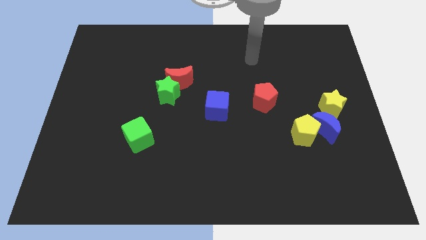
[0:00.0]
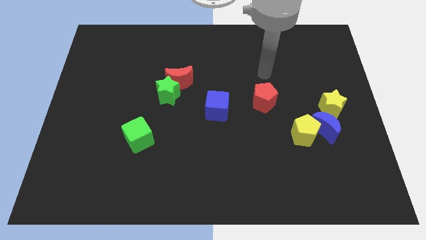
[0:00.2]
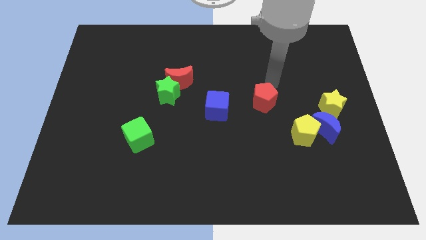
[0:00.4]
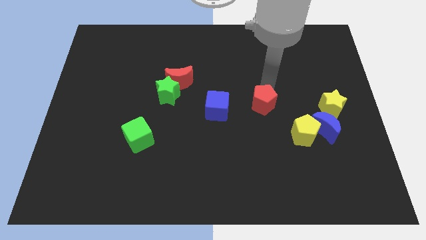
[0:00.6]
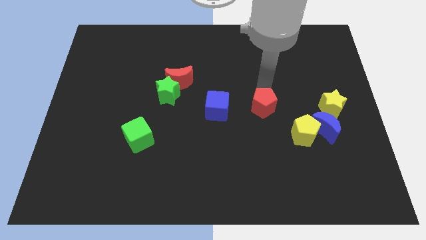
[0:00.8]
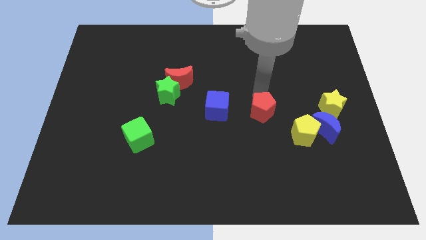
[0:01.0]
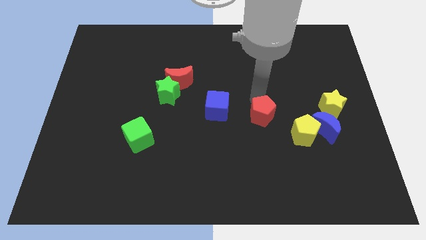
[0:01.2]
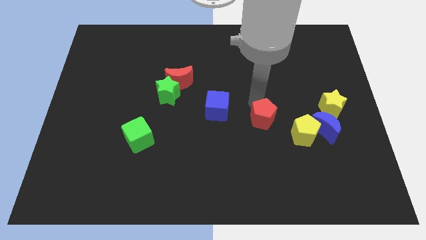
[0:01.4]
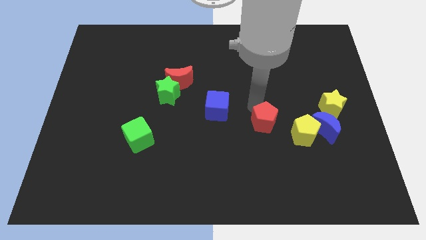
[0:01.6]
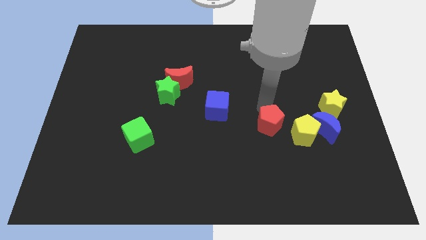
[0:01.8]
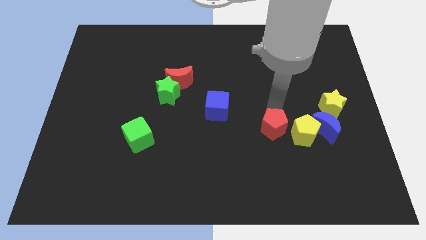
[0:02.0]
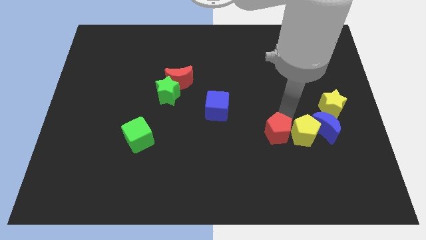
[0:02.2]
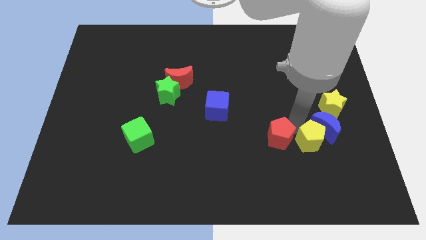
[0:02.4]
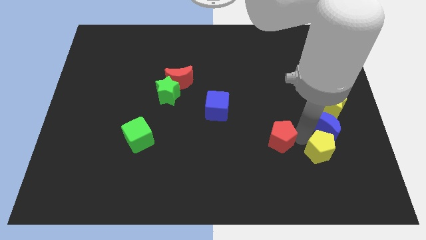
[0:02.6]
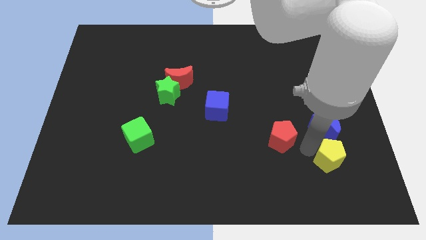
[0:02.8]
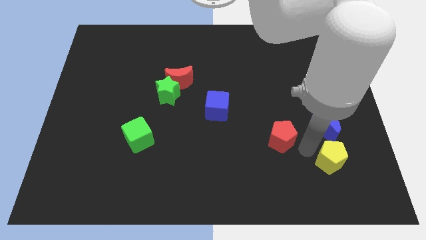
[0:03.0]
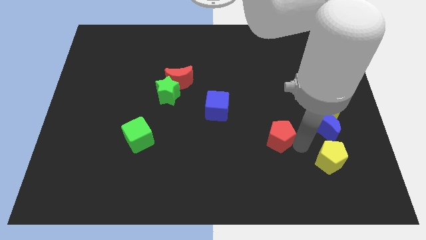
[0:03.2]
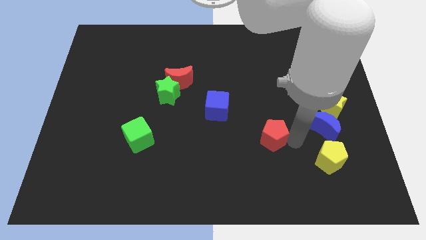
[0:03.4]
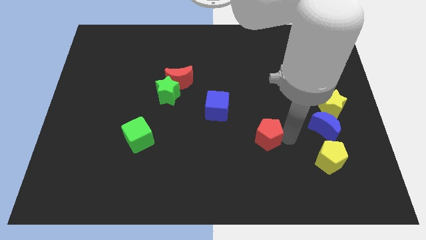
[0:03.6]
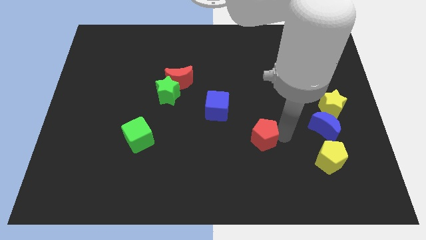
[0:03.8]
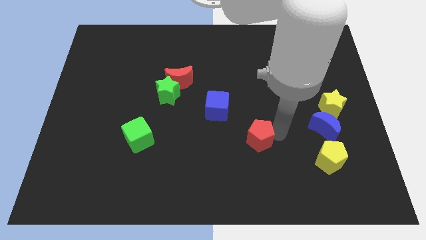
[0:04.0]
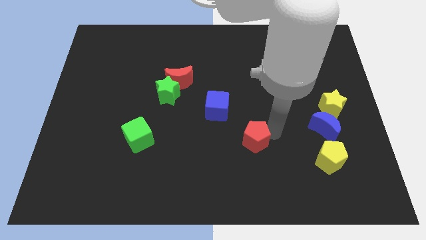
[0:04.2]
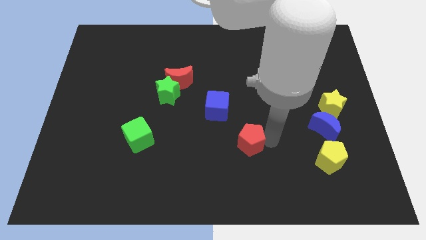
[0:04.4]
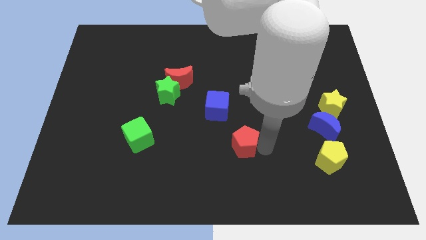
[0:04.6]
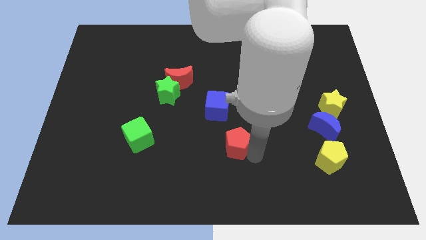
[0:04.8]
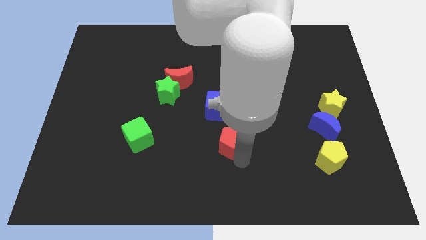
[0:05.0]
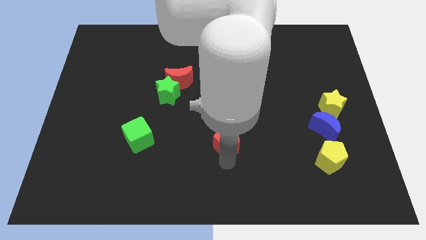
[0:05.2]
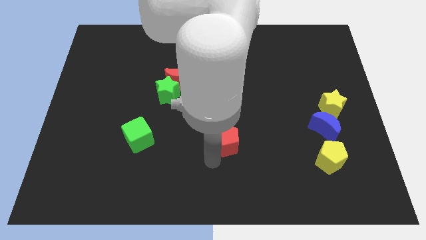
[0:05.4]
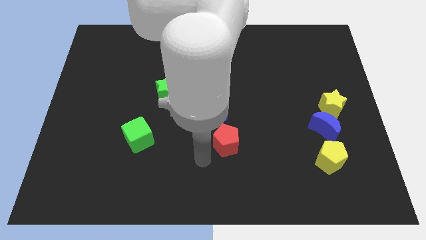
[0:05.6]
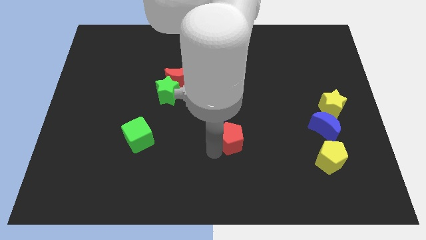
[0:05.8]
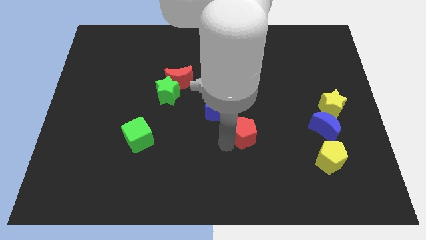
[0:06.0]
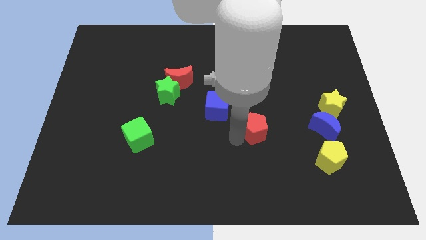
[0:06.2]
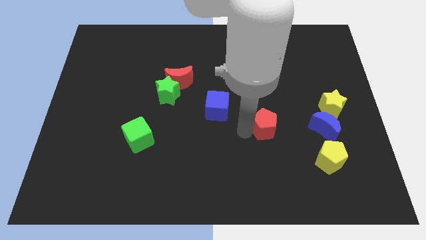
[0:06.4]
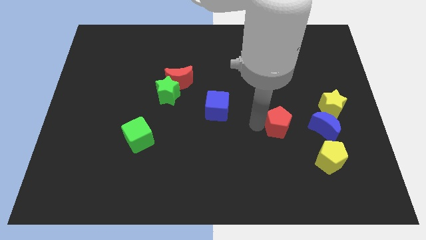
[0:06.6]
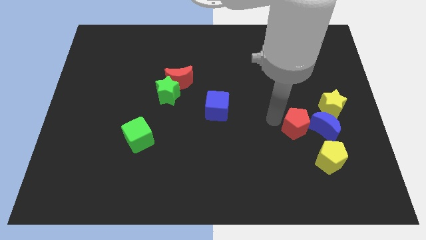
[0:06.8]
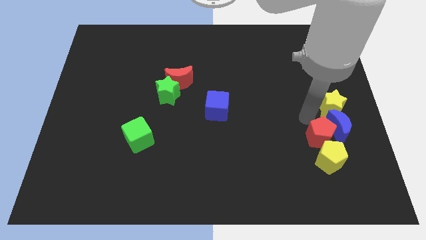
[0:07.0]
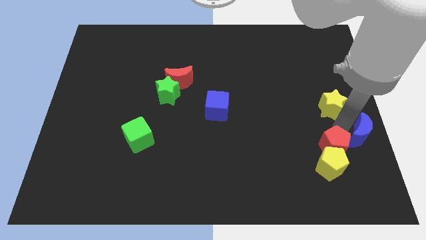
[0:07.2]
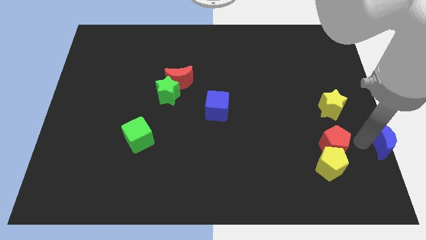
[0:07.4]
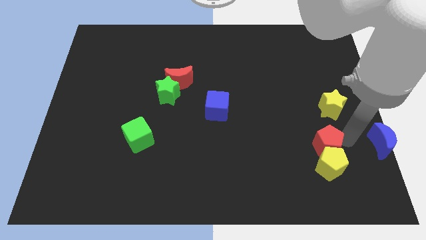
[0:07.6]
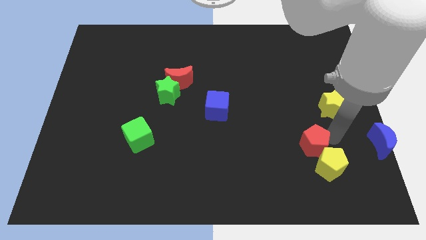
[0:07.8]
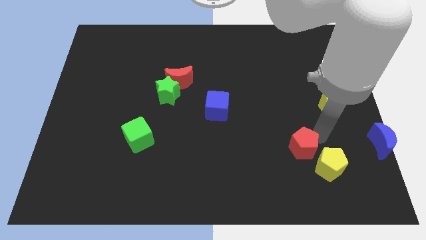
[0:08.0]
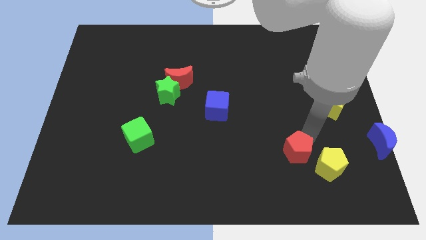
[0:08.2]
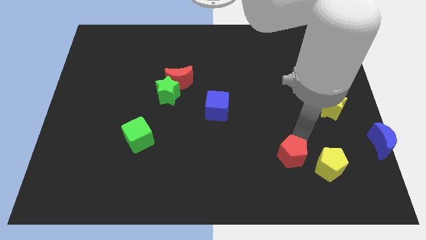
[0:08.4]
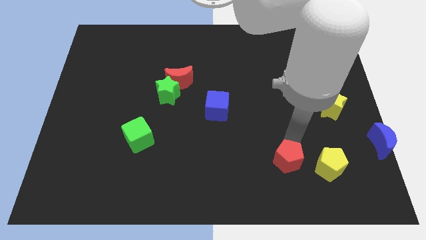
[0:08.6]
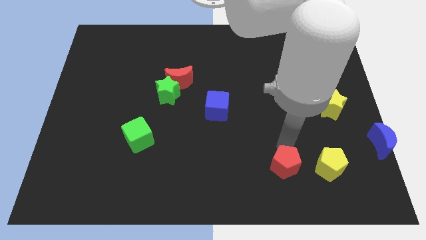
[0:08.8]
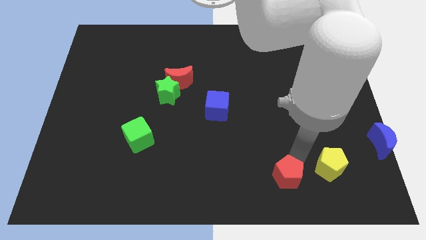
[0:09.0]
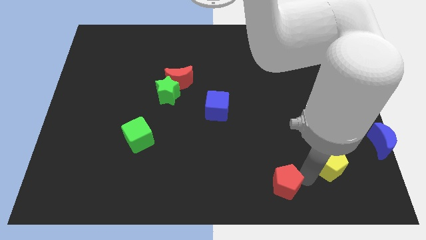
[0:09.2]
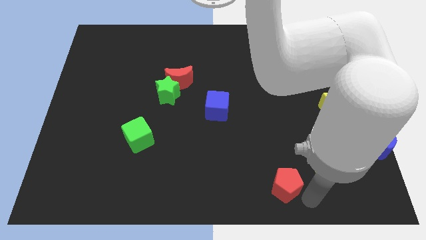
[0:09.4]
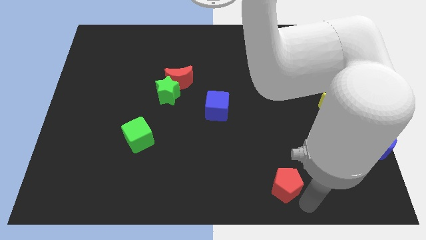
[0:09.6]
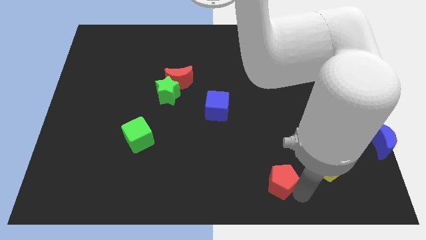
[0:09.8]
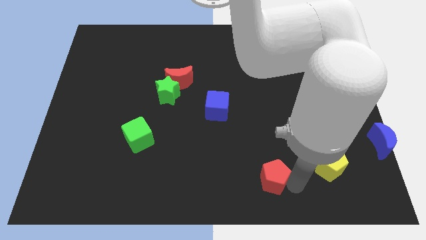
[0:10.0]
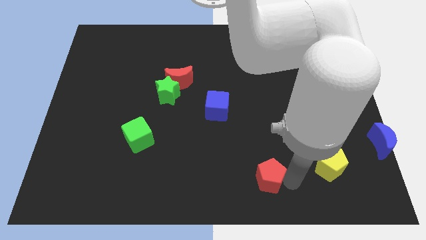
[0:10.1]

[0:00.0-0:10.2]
put the red pentagon to the bottom

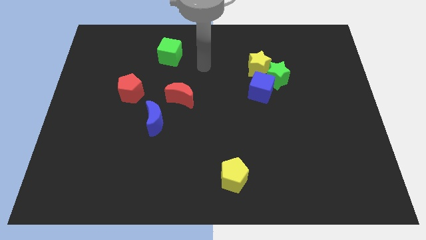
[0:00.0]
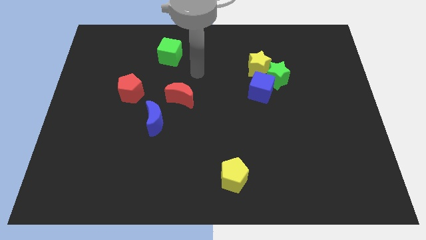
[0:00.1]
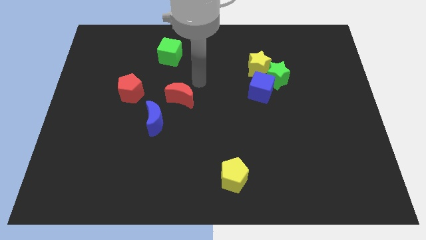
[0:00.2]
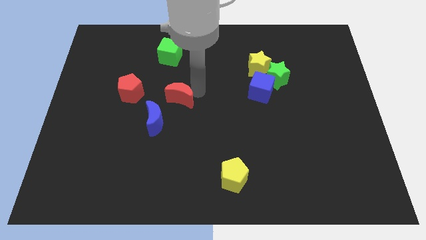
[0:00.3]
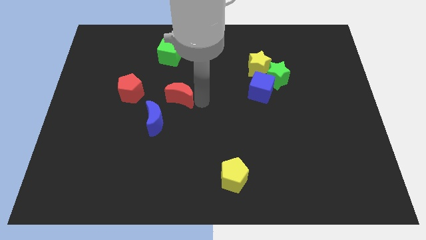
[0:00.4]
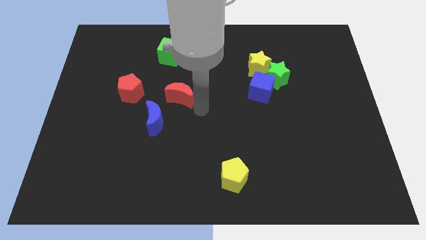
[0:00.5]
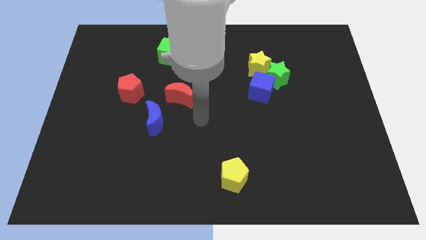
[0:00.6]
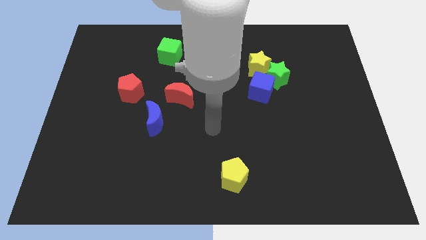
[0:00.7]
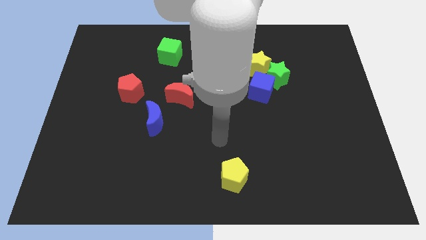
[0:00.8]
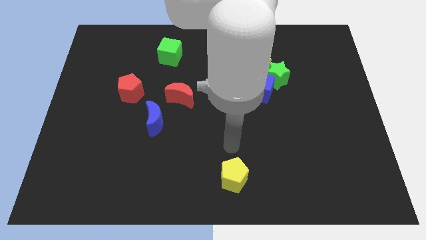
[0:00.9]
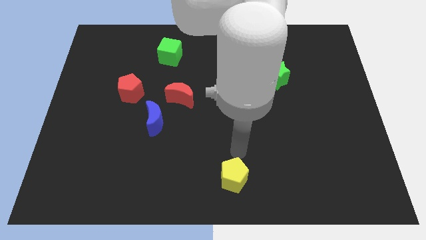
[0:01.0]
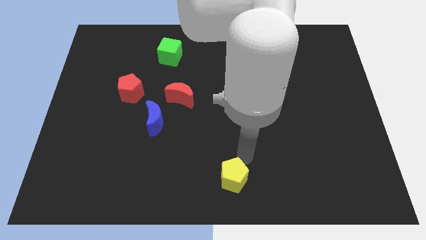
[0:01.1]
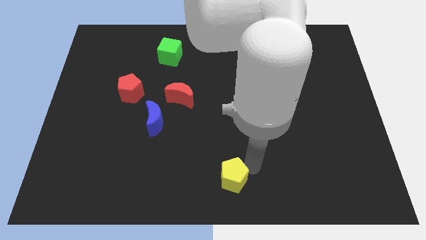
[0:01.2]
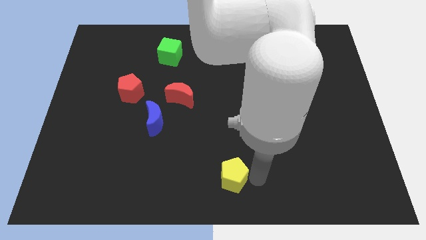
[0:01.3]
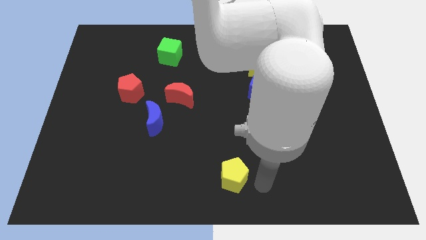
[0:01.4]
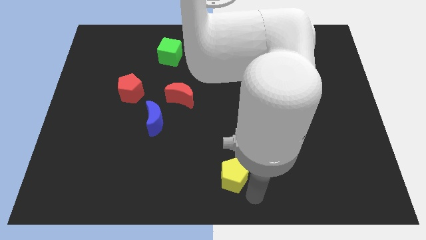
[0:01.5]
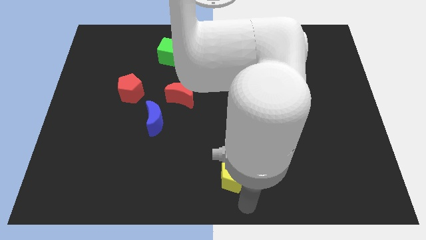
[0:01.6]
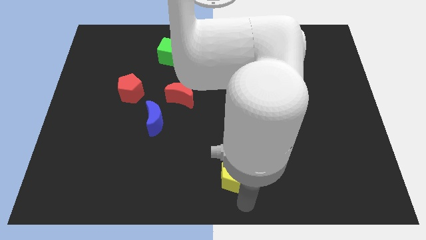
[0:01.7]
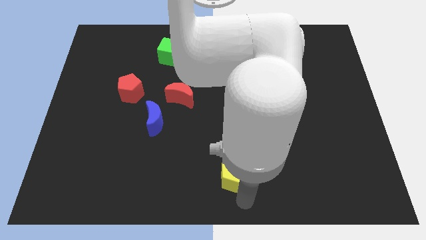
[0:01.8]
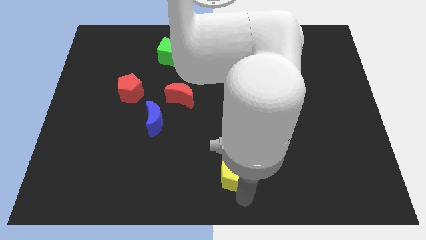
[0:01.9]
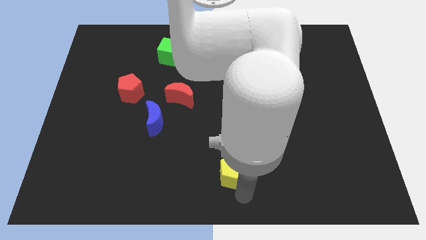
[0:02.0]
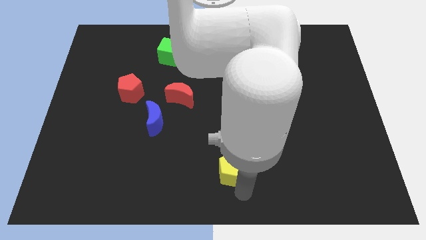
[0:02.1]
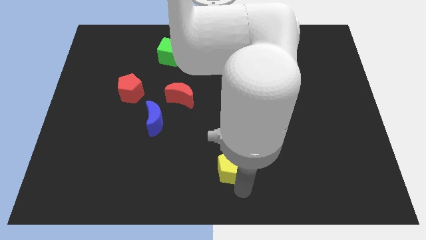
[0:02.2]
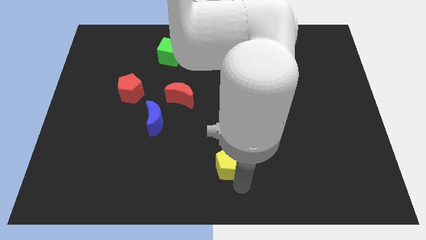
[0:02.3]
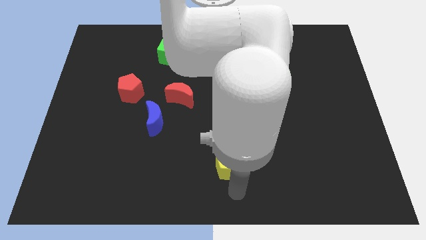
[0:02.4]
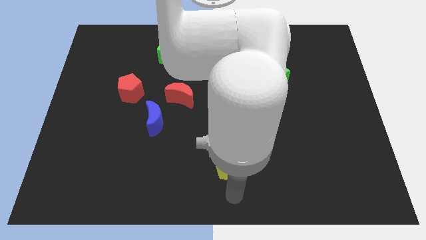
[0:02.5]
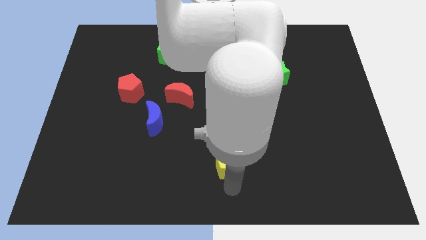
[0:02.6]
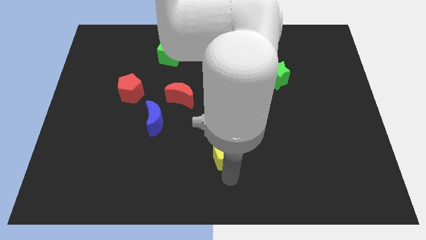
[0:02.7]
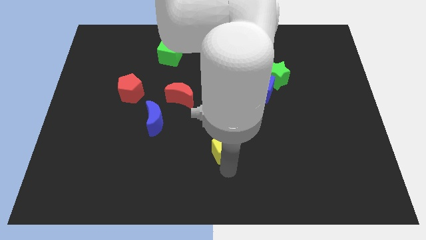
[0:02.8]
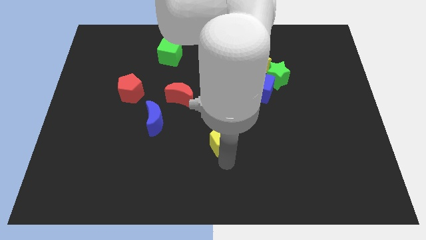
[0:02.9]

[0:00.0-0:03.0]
move the yellow pentagon to the middle of the board
